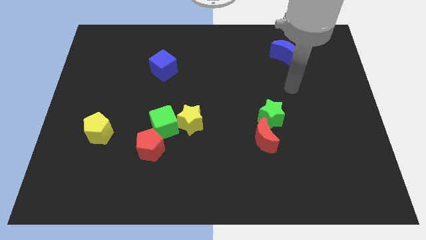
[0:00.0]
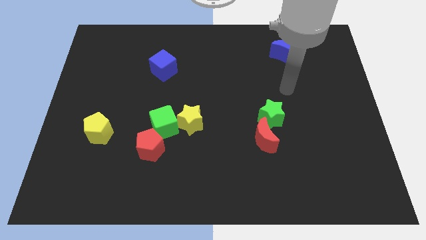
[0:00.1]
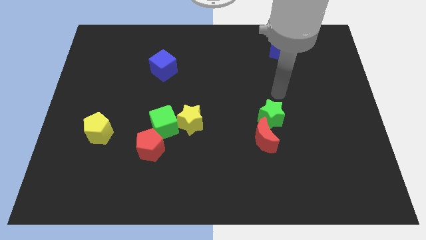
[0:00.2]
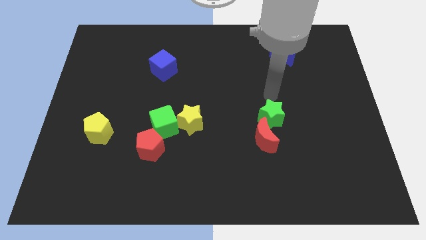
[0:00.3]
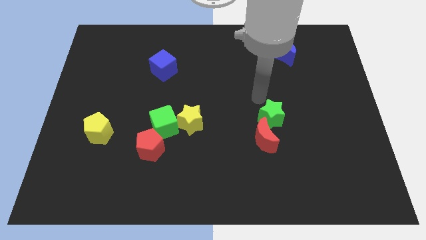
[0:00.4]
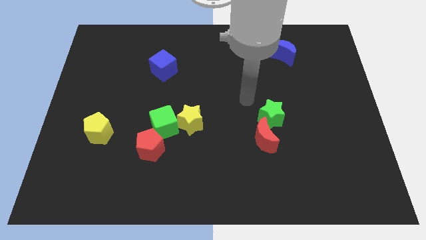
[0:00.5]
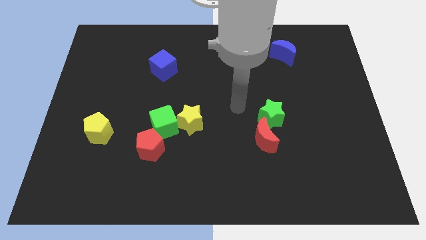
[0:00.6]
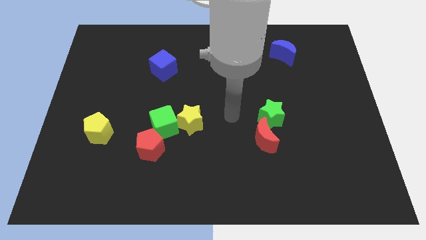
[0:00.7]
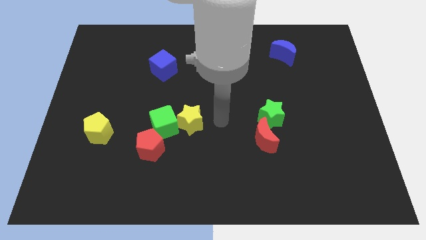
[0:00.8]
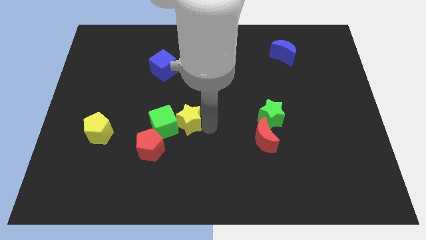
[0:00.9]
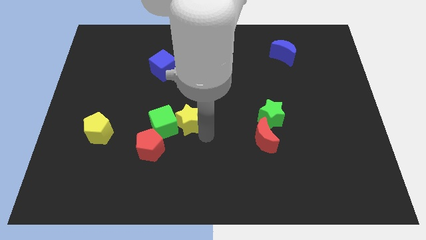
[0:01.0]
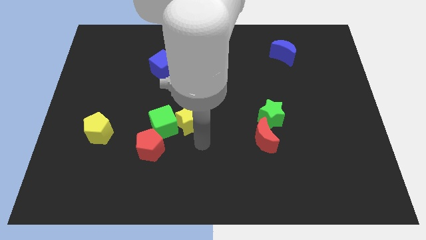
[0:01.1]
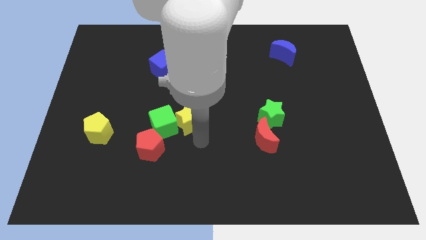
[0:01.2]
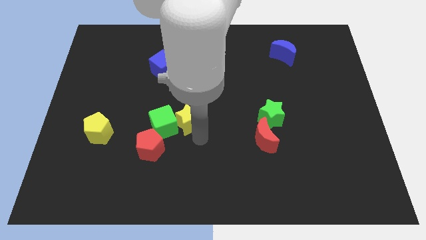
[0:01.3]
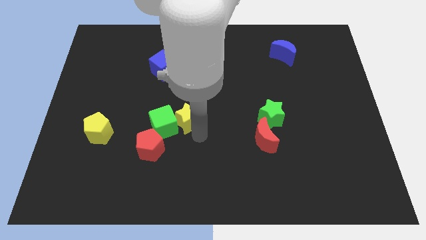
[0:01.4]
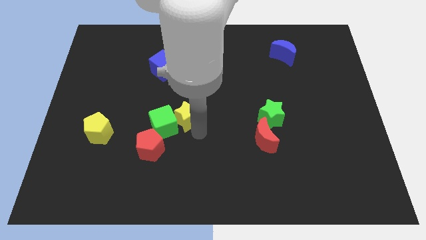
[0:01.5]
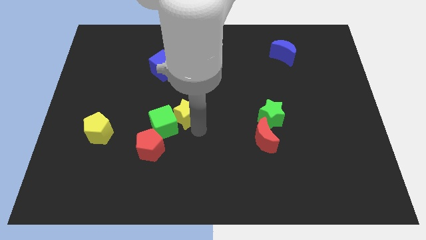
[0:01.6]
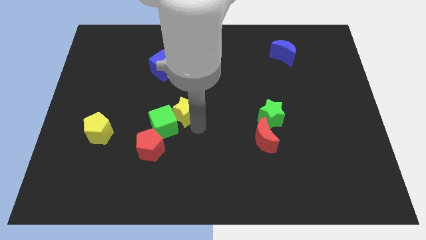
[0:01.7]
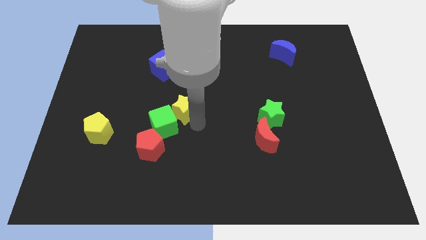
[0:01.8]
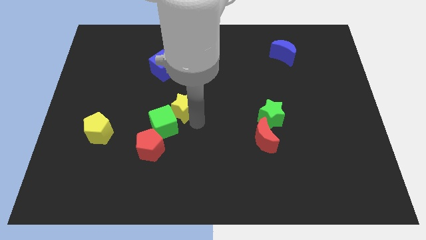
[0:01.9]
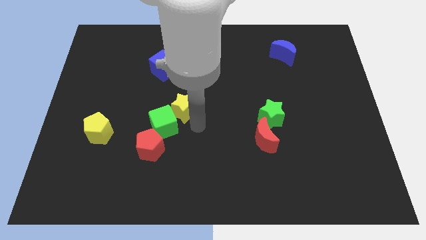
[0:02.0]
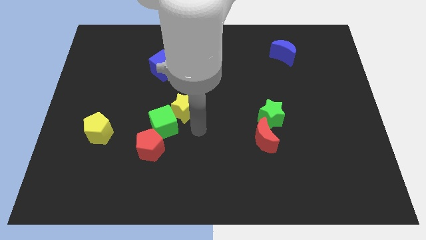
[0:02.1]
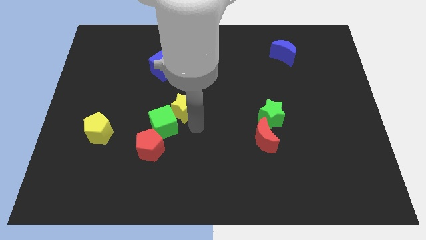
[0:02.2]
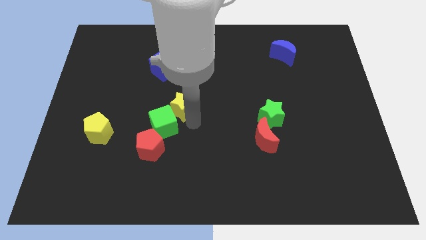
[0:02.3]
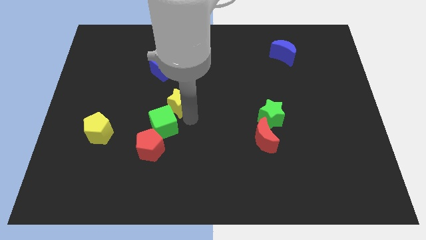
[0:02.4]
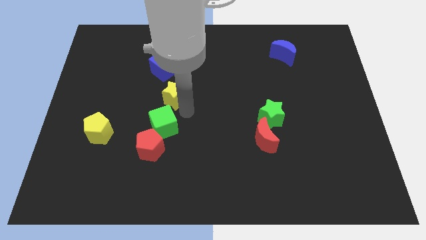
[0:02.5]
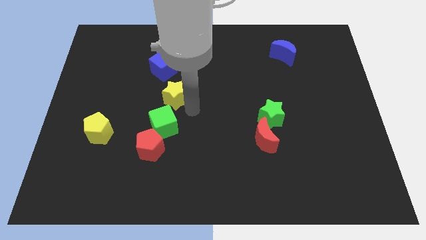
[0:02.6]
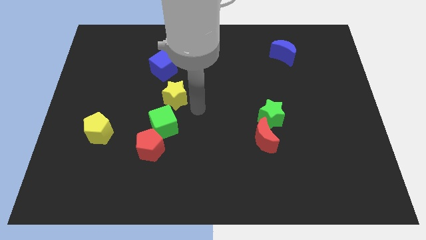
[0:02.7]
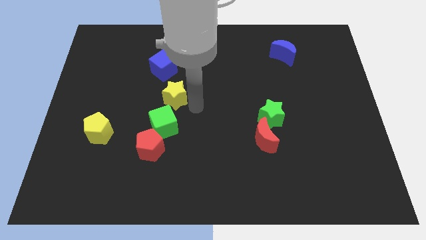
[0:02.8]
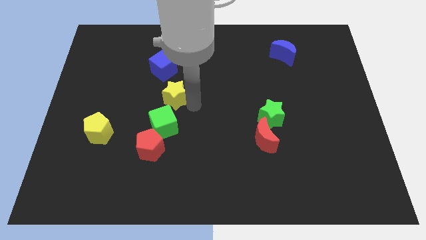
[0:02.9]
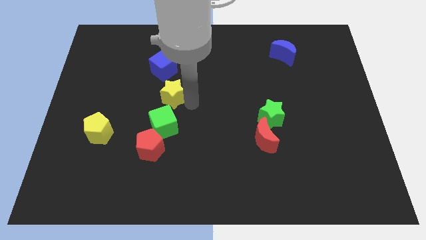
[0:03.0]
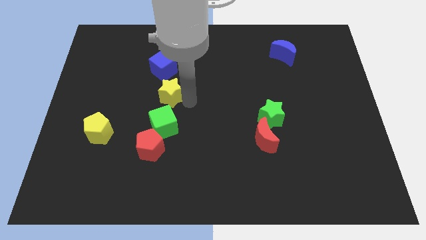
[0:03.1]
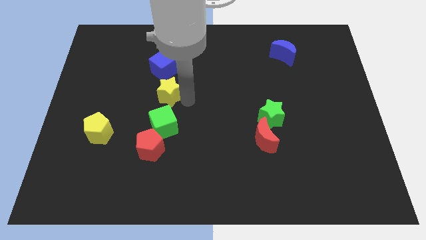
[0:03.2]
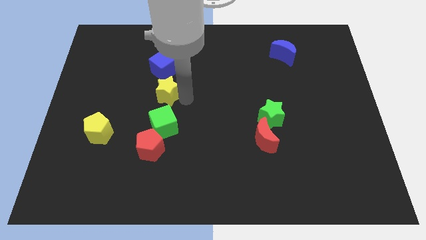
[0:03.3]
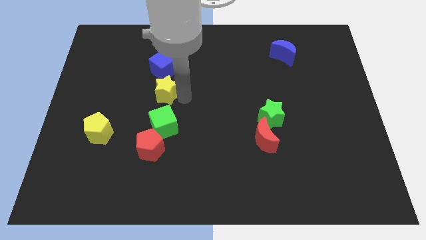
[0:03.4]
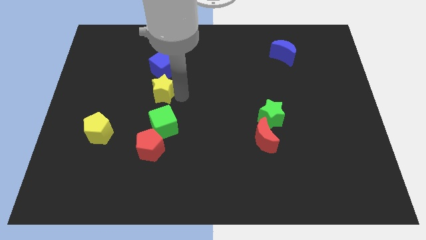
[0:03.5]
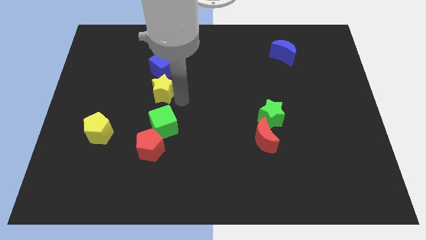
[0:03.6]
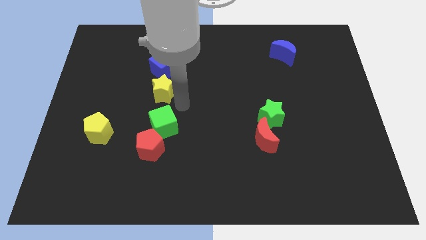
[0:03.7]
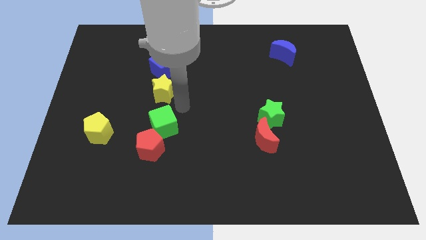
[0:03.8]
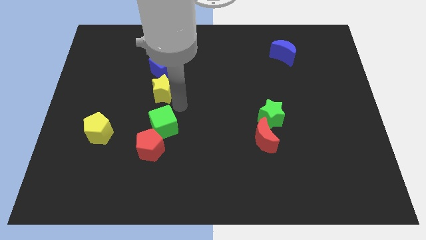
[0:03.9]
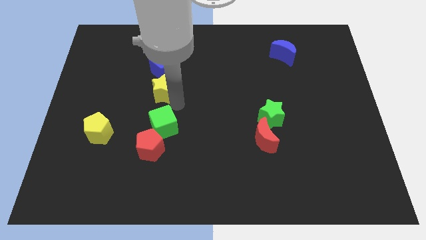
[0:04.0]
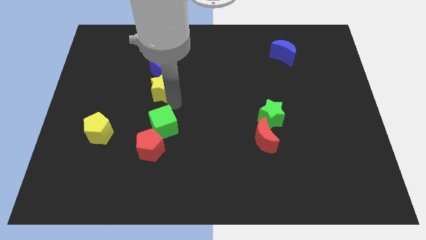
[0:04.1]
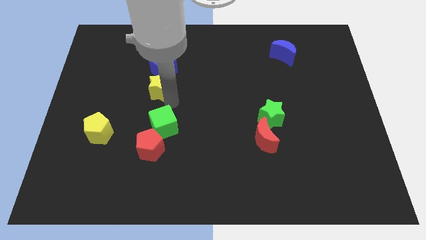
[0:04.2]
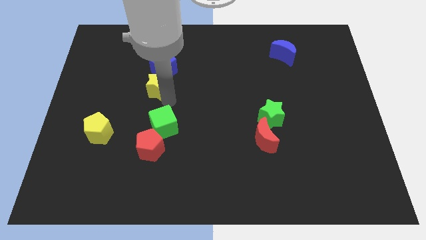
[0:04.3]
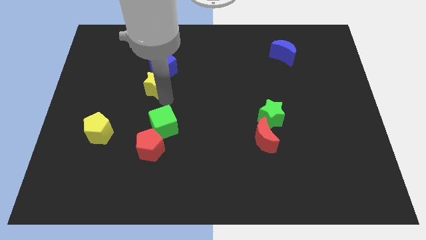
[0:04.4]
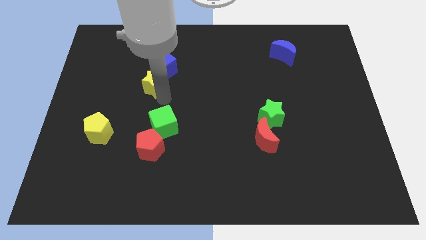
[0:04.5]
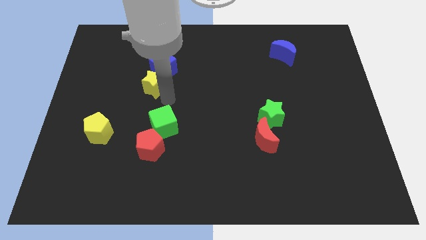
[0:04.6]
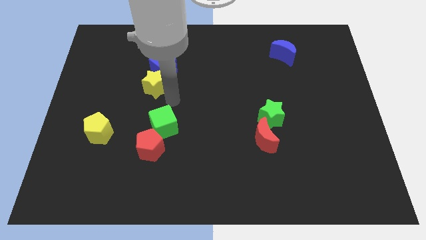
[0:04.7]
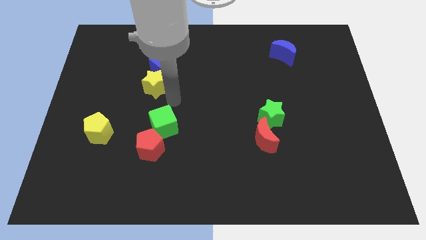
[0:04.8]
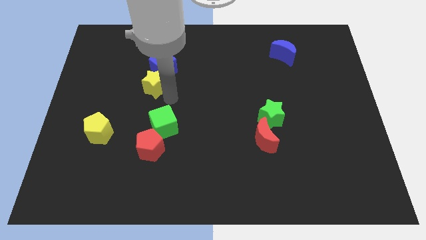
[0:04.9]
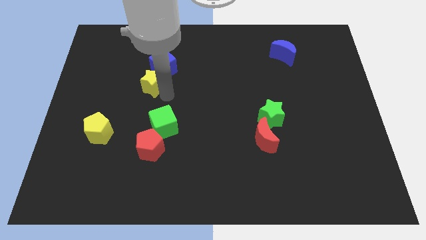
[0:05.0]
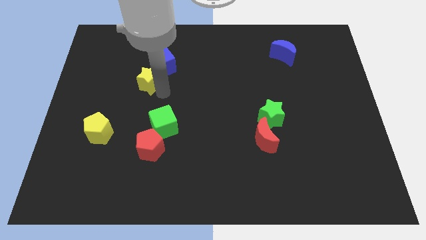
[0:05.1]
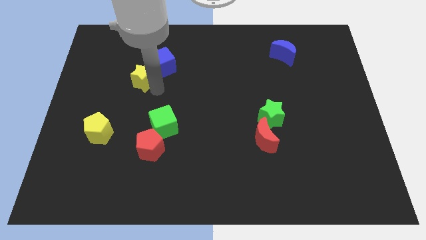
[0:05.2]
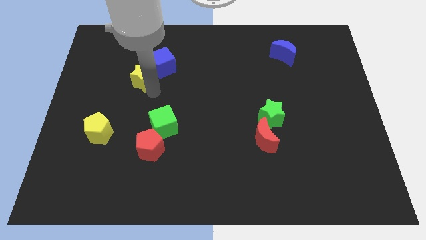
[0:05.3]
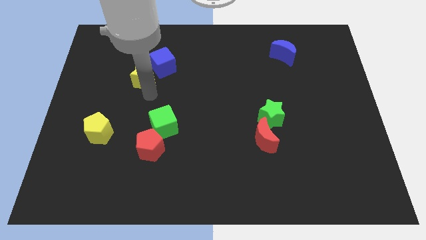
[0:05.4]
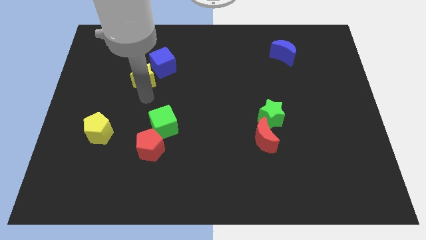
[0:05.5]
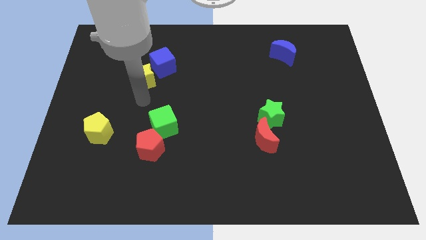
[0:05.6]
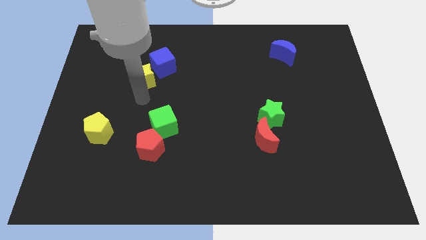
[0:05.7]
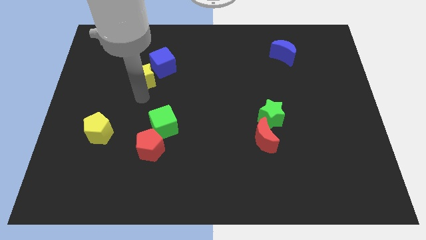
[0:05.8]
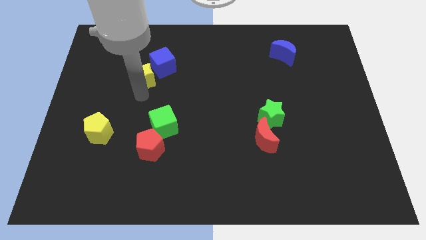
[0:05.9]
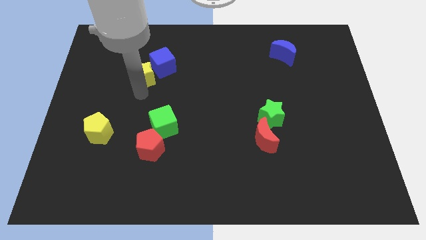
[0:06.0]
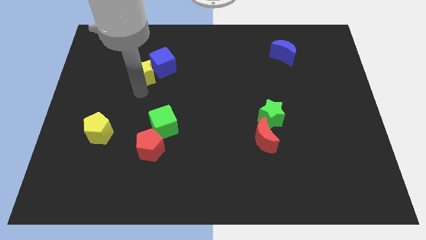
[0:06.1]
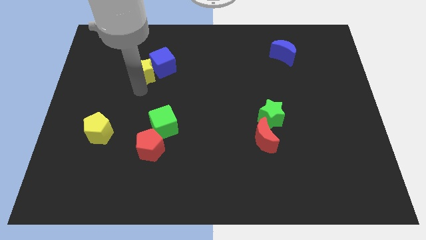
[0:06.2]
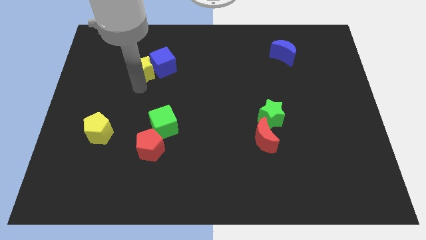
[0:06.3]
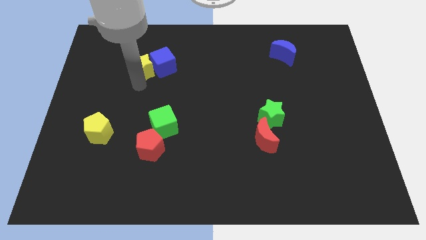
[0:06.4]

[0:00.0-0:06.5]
move the yellow star to the top left of the blue cube

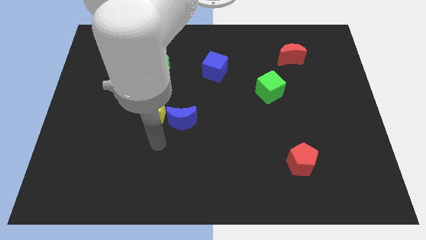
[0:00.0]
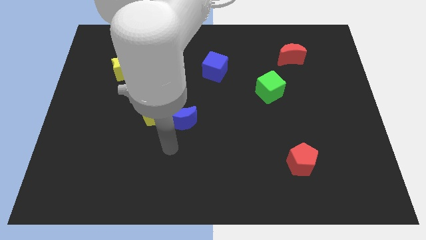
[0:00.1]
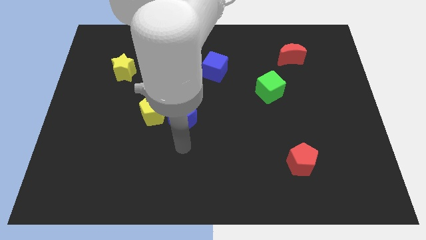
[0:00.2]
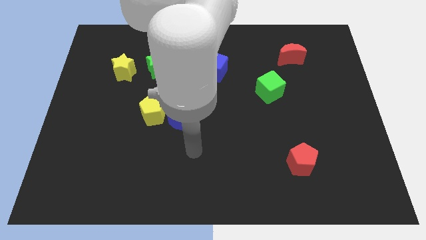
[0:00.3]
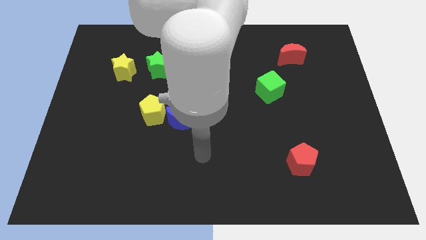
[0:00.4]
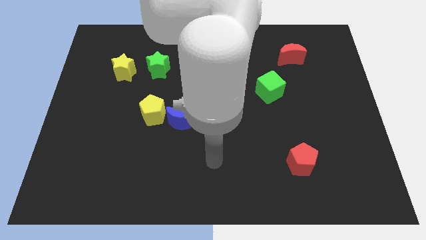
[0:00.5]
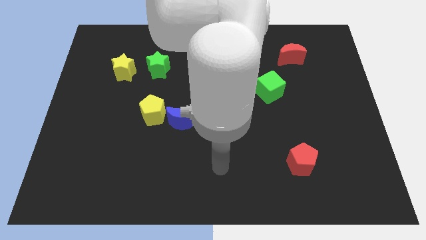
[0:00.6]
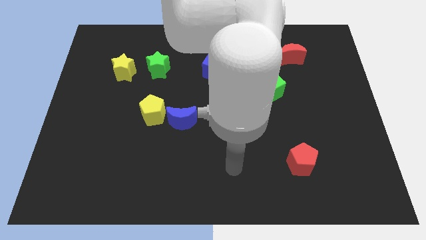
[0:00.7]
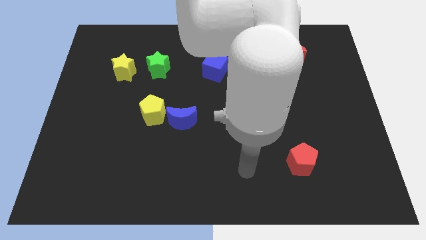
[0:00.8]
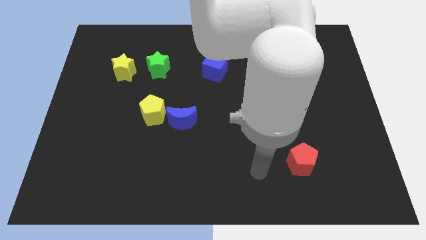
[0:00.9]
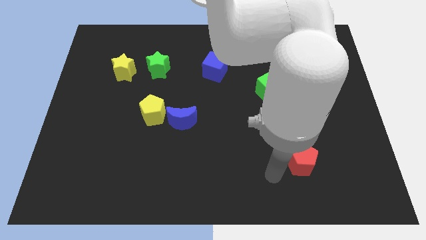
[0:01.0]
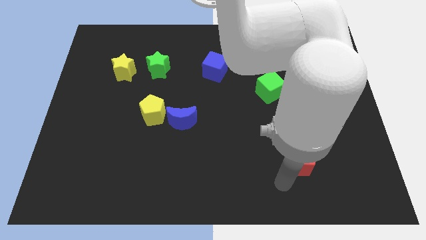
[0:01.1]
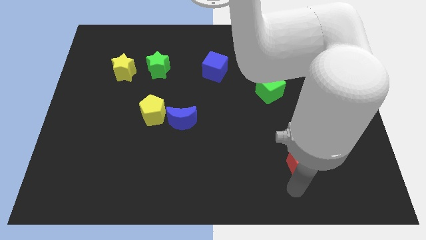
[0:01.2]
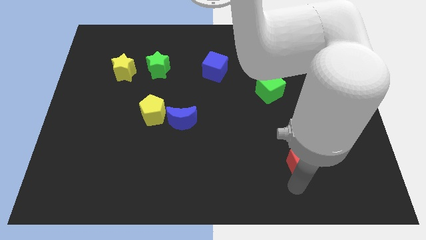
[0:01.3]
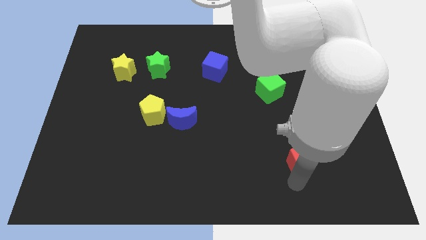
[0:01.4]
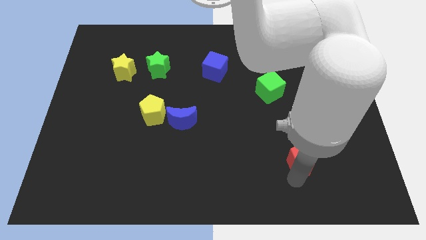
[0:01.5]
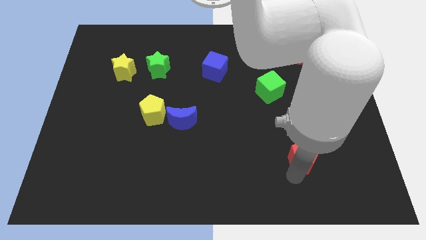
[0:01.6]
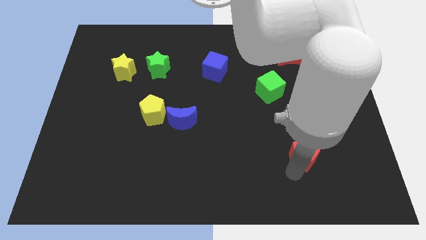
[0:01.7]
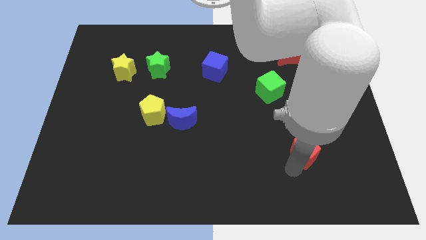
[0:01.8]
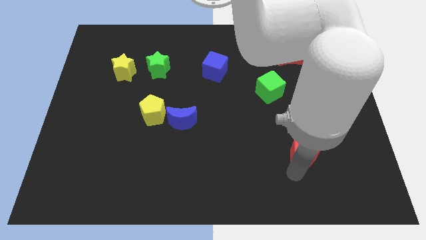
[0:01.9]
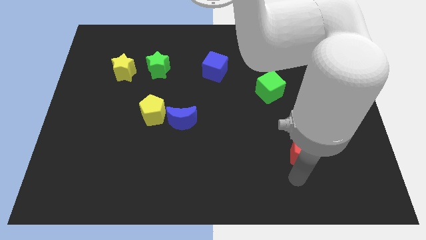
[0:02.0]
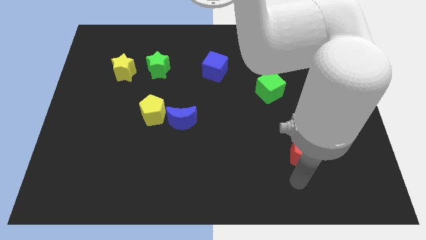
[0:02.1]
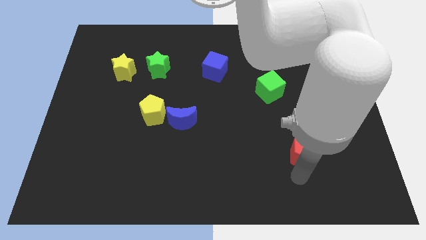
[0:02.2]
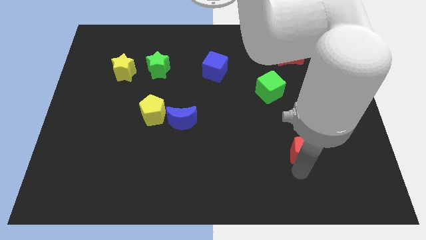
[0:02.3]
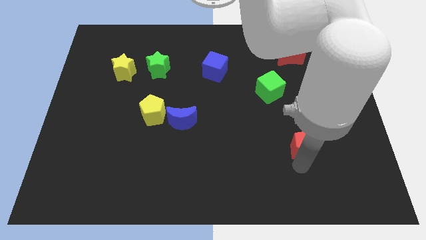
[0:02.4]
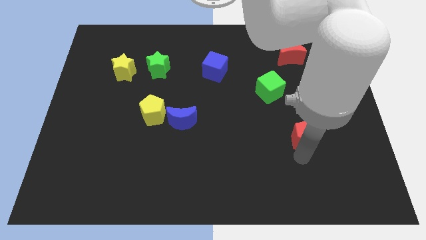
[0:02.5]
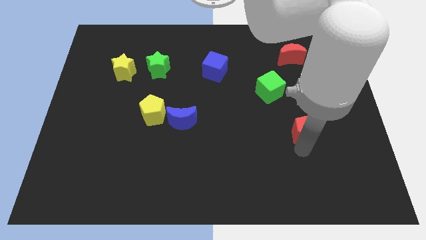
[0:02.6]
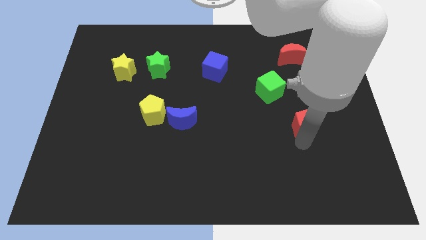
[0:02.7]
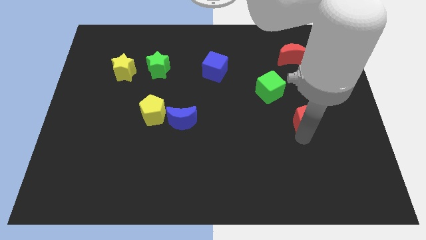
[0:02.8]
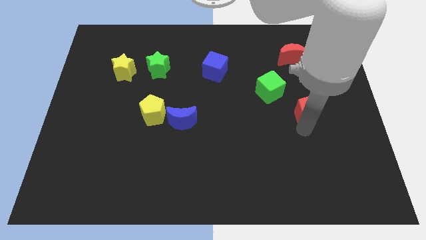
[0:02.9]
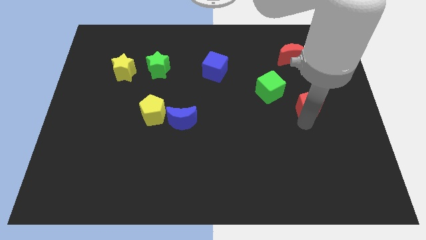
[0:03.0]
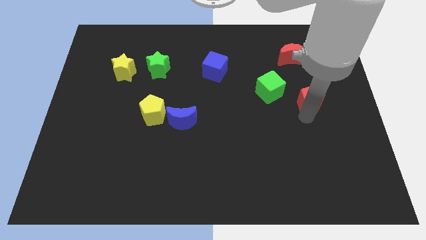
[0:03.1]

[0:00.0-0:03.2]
slide the red pentagon to the right side of the green cube
